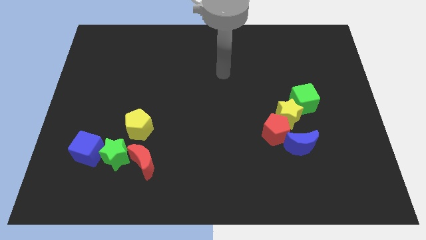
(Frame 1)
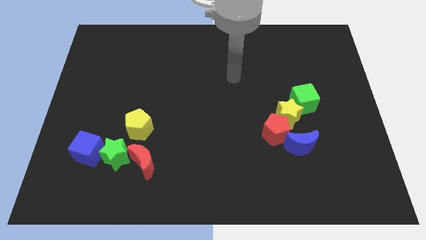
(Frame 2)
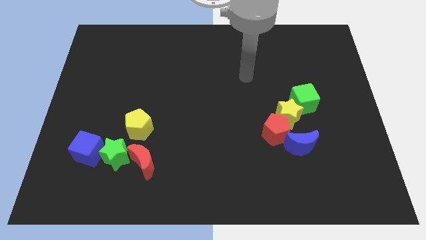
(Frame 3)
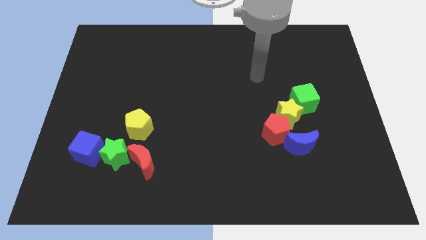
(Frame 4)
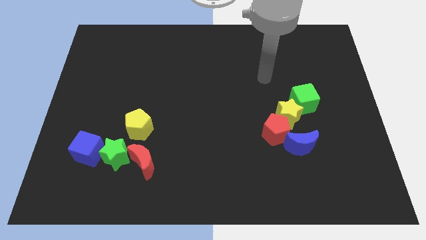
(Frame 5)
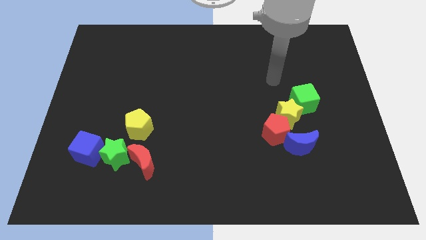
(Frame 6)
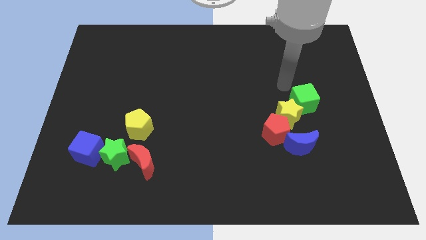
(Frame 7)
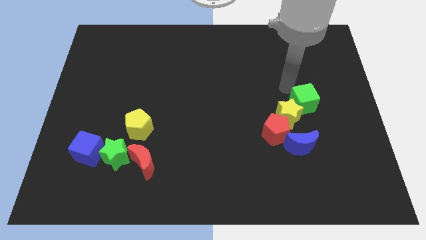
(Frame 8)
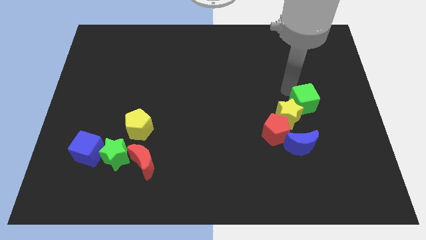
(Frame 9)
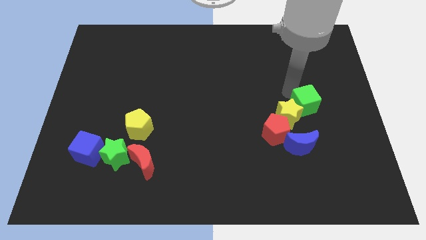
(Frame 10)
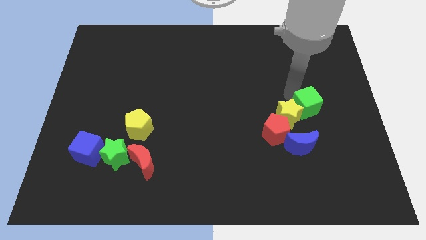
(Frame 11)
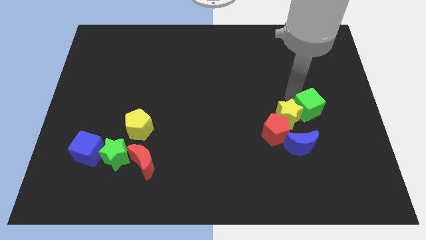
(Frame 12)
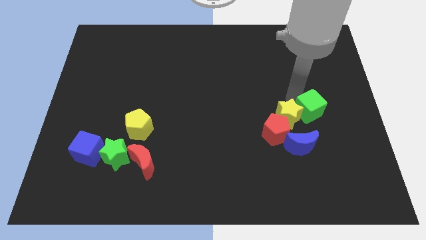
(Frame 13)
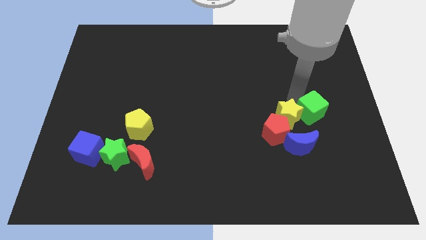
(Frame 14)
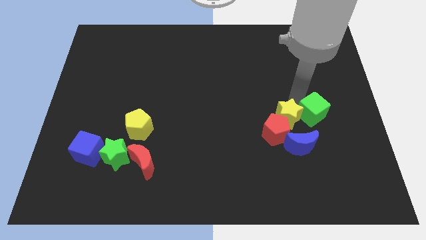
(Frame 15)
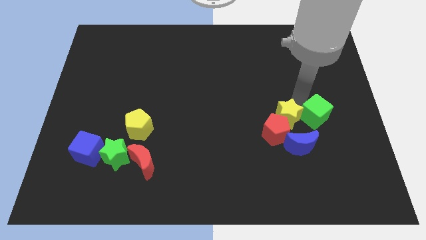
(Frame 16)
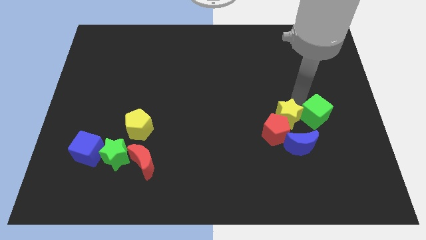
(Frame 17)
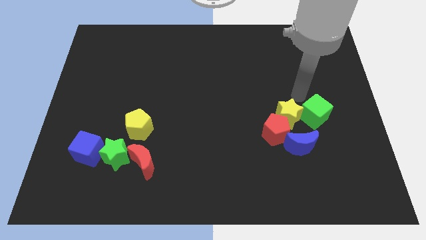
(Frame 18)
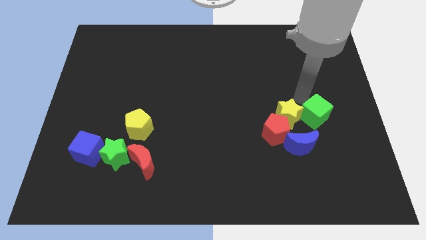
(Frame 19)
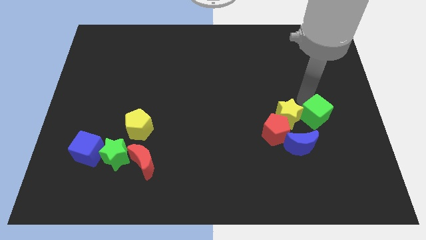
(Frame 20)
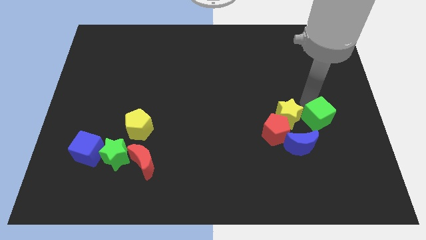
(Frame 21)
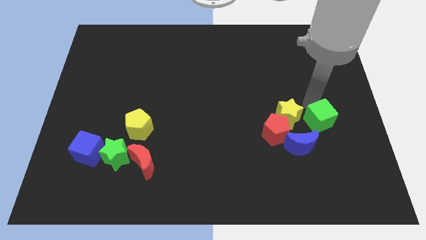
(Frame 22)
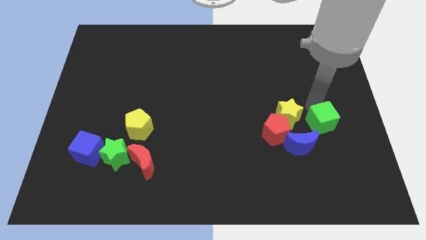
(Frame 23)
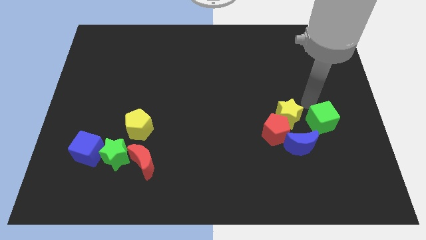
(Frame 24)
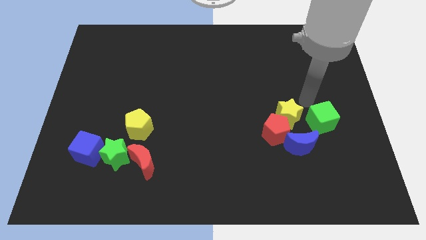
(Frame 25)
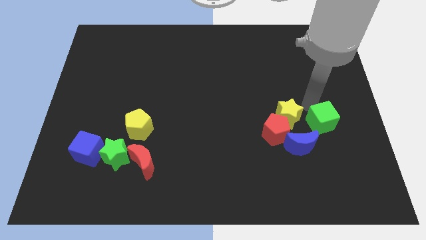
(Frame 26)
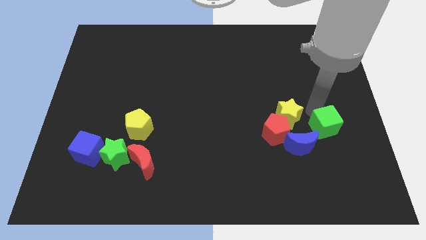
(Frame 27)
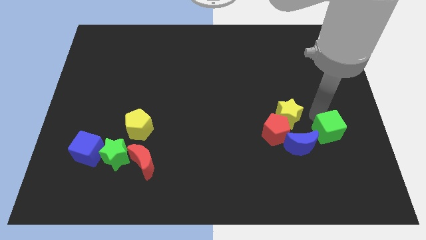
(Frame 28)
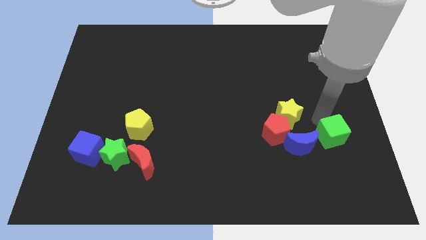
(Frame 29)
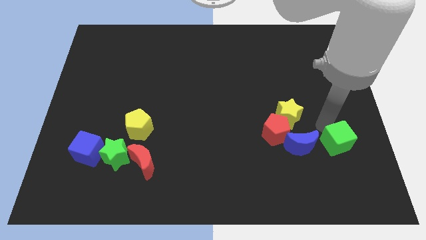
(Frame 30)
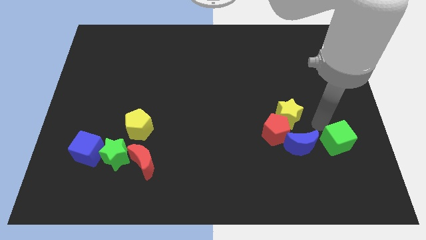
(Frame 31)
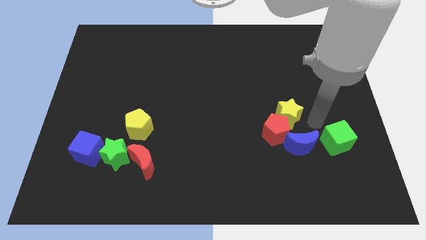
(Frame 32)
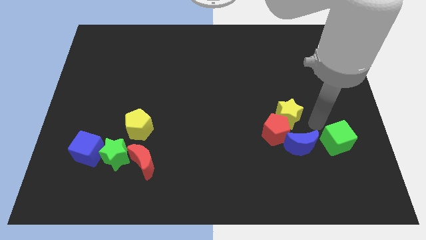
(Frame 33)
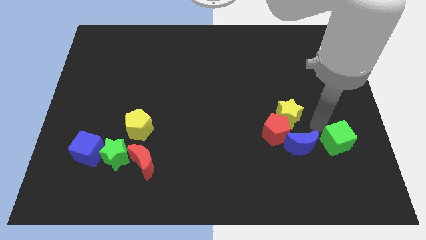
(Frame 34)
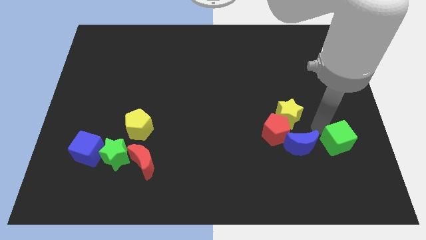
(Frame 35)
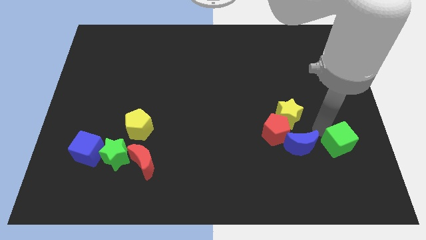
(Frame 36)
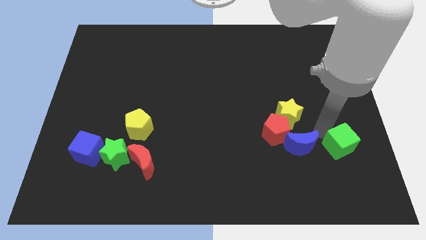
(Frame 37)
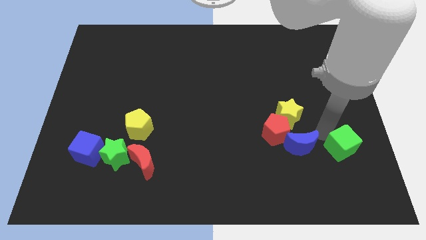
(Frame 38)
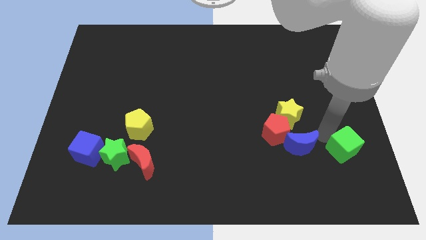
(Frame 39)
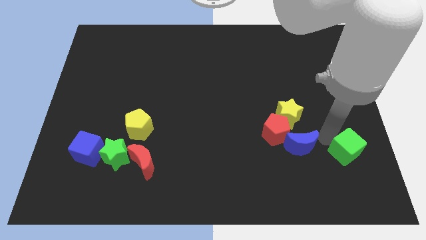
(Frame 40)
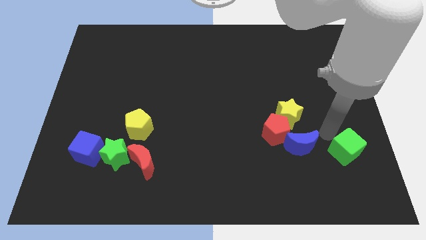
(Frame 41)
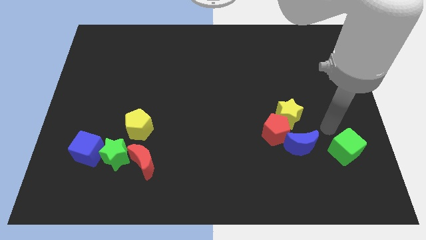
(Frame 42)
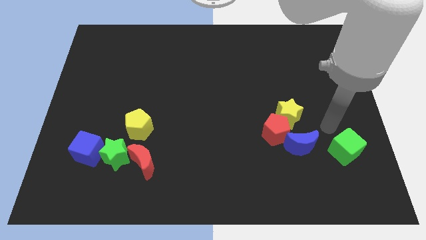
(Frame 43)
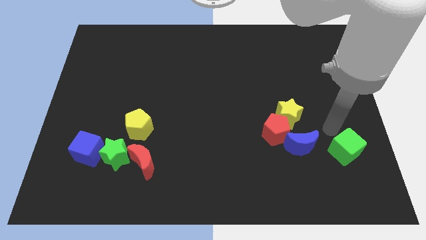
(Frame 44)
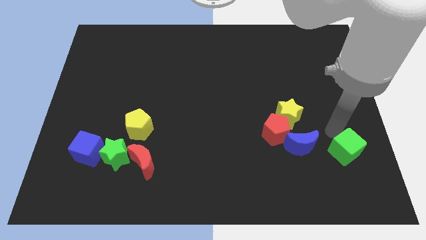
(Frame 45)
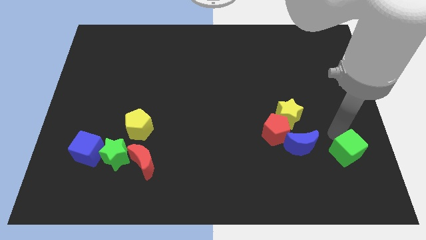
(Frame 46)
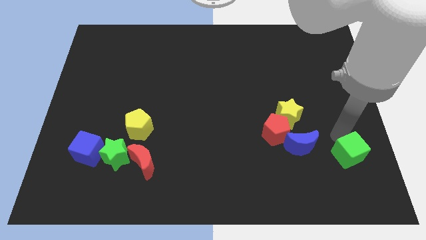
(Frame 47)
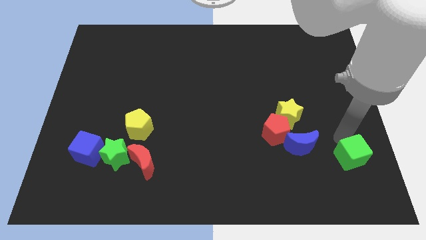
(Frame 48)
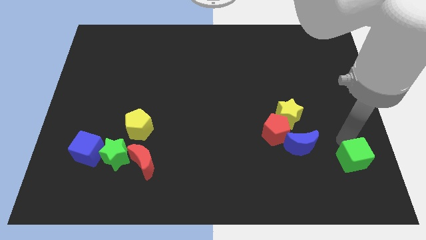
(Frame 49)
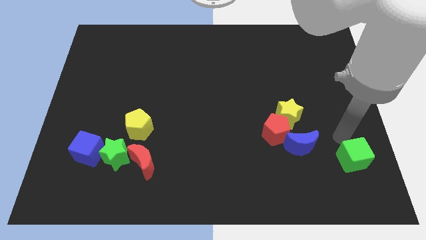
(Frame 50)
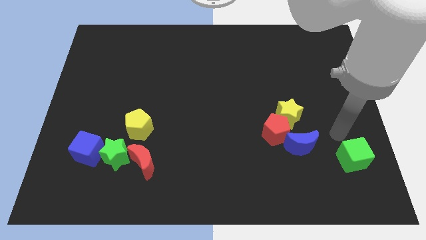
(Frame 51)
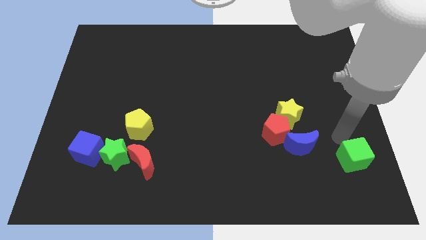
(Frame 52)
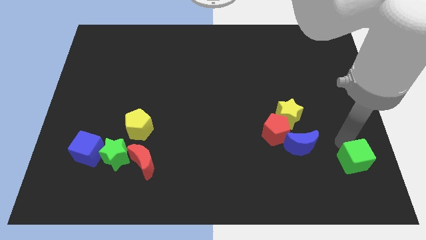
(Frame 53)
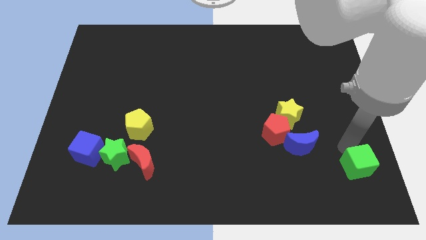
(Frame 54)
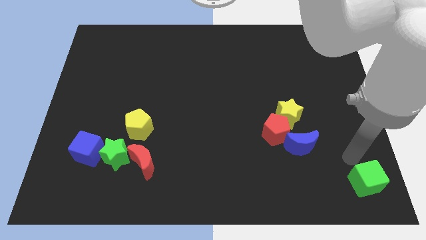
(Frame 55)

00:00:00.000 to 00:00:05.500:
put the green cube to the bottom right of the board

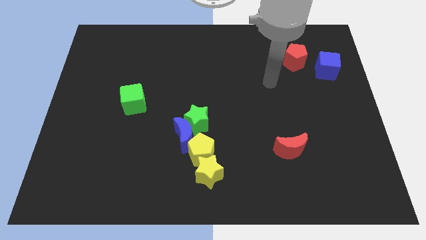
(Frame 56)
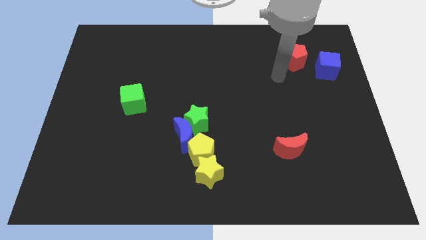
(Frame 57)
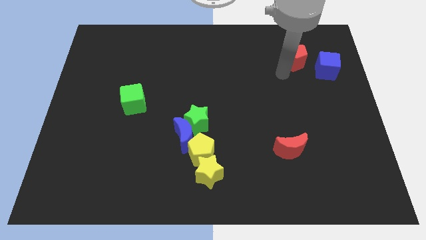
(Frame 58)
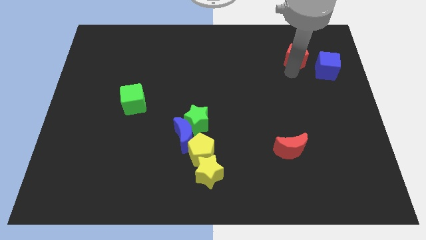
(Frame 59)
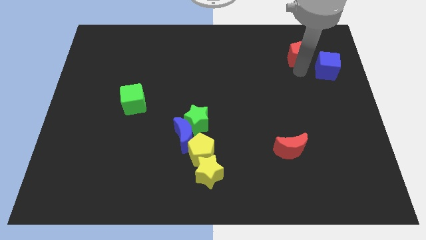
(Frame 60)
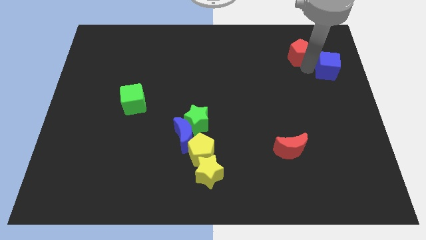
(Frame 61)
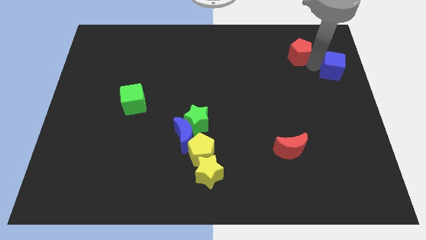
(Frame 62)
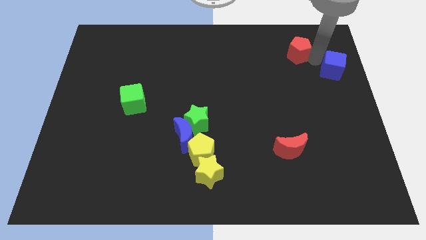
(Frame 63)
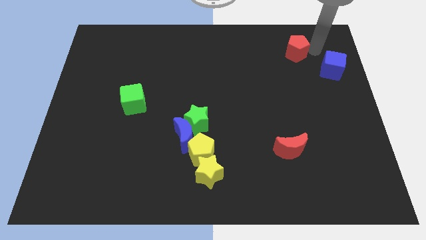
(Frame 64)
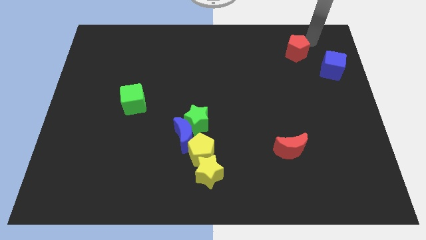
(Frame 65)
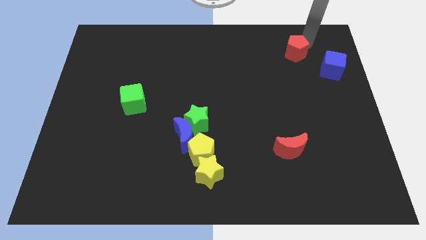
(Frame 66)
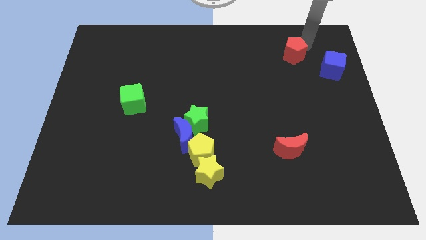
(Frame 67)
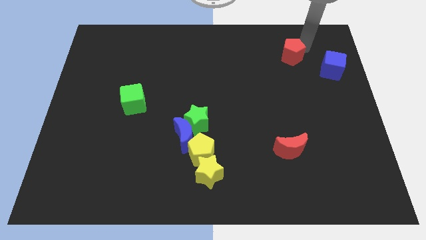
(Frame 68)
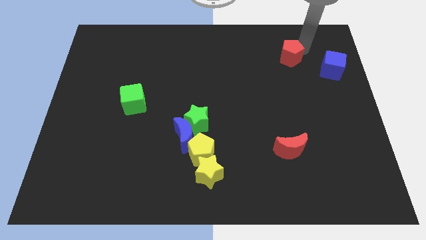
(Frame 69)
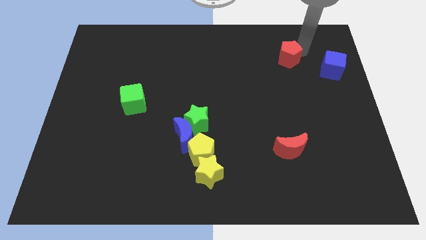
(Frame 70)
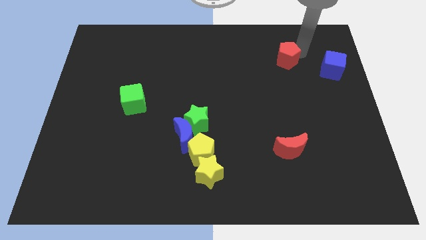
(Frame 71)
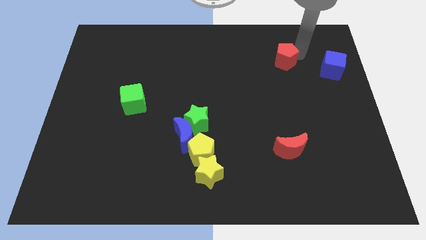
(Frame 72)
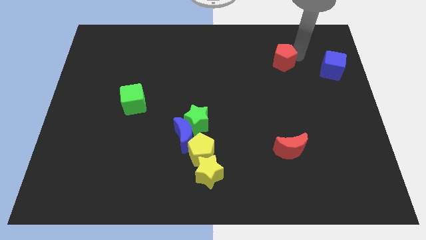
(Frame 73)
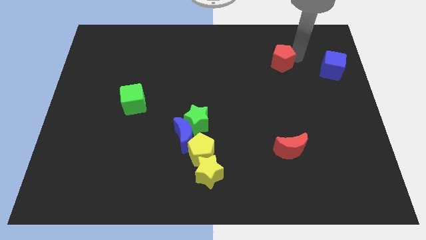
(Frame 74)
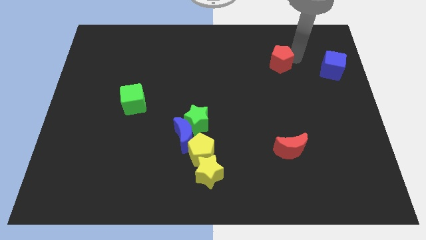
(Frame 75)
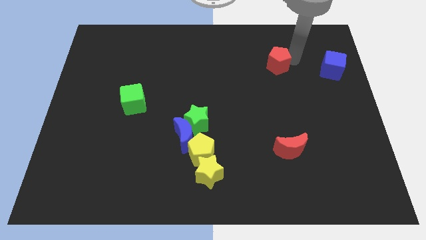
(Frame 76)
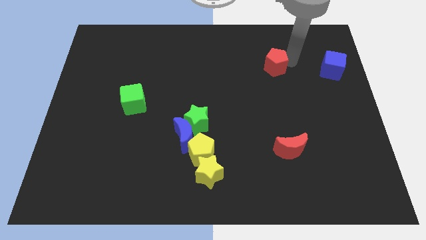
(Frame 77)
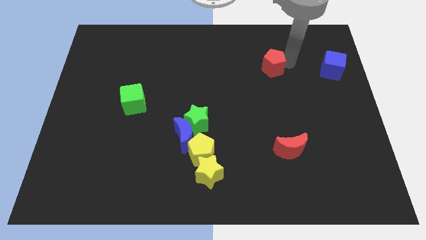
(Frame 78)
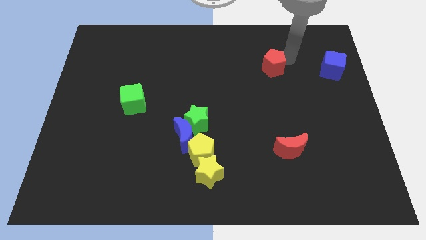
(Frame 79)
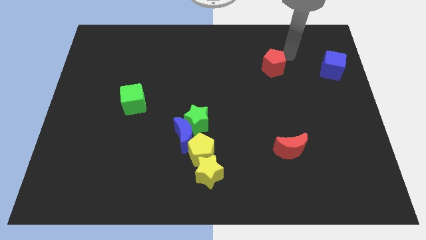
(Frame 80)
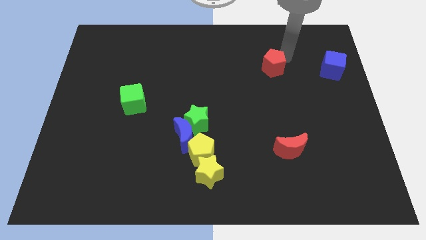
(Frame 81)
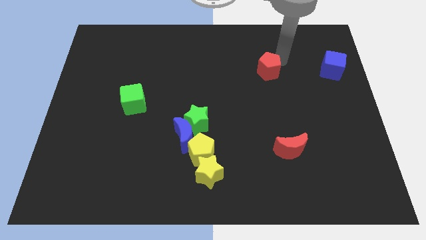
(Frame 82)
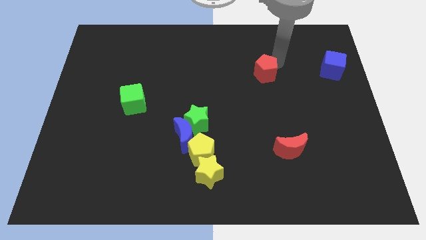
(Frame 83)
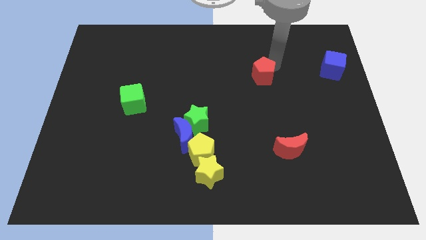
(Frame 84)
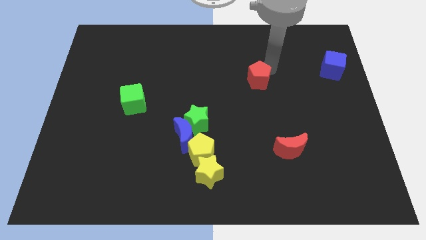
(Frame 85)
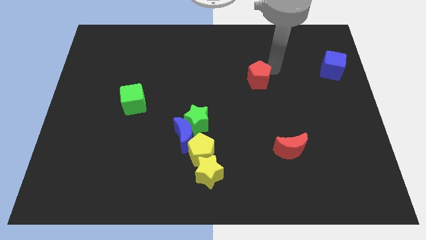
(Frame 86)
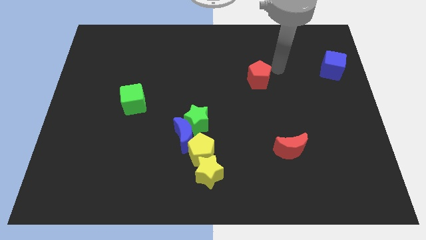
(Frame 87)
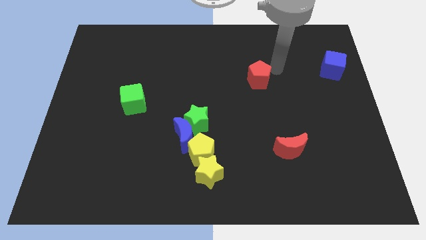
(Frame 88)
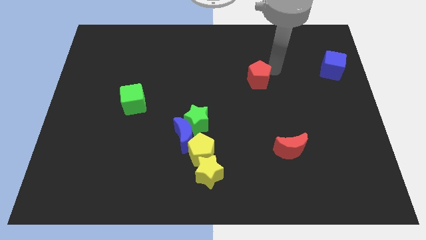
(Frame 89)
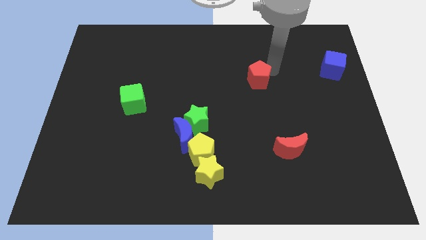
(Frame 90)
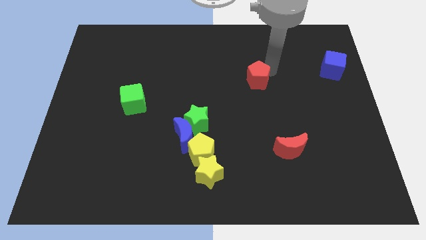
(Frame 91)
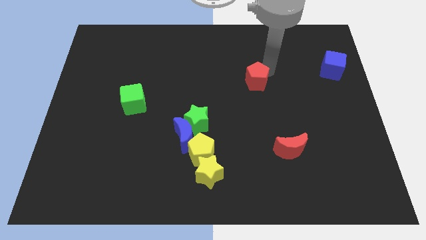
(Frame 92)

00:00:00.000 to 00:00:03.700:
move the red pentagon to the center of the board
